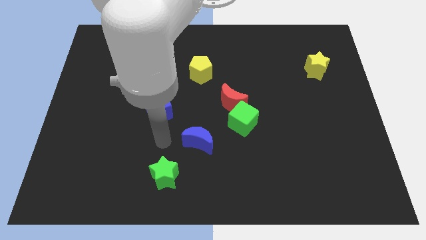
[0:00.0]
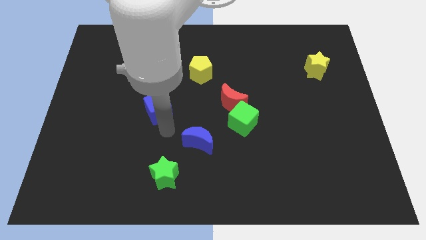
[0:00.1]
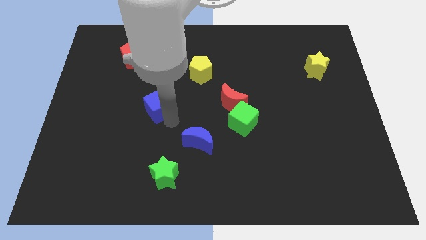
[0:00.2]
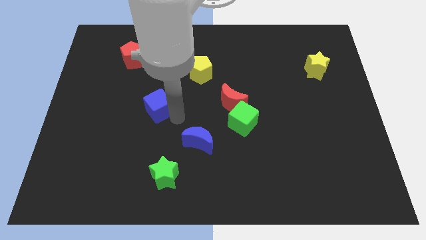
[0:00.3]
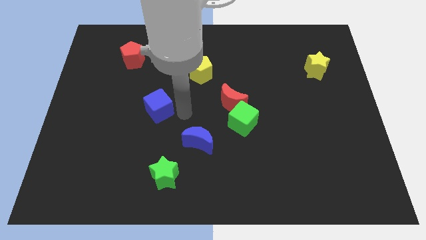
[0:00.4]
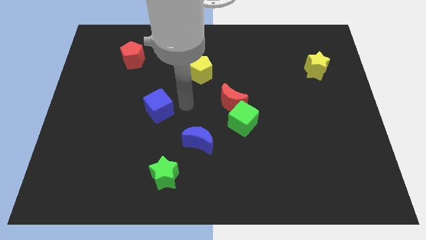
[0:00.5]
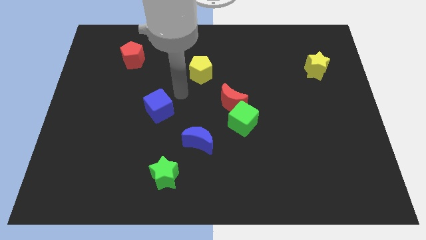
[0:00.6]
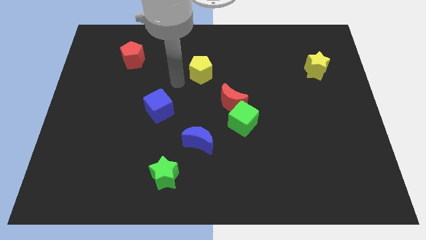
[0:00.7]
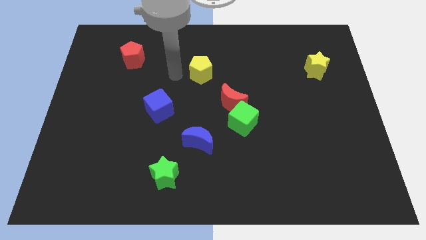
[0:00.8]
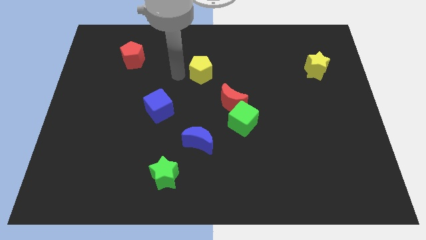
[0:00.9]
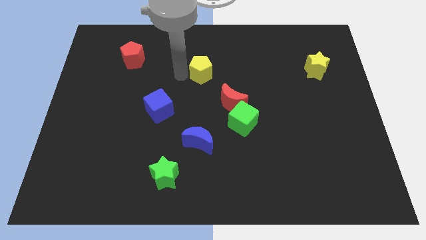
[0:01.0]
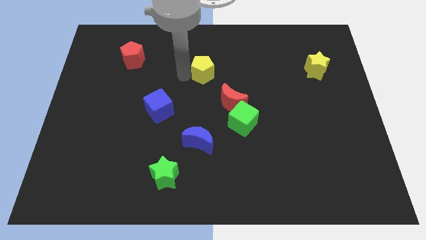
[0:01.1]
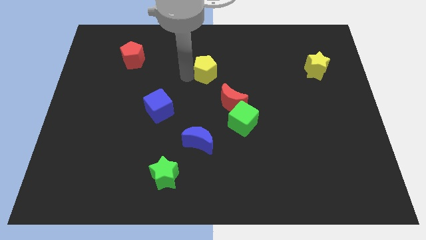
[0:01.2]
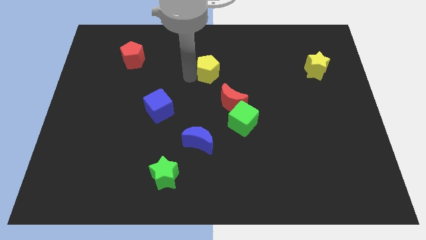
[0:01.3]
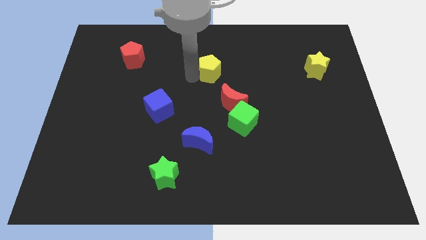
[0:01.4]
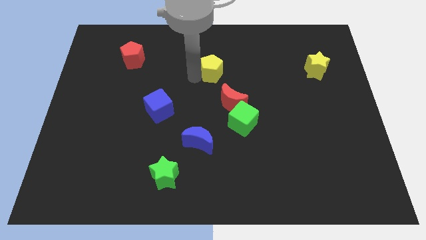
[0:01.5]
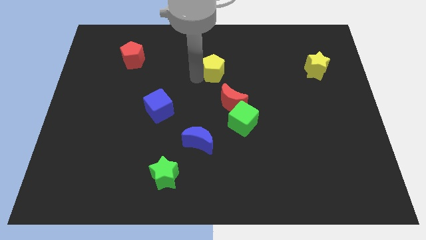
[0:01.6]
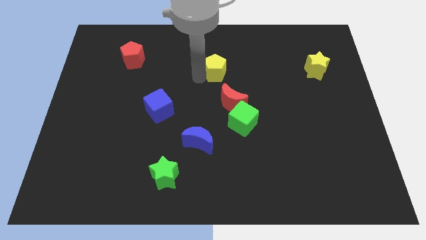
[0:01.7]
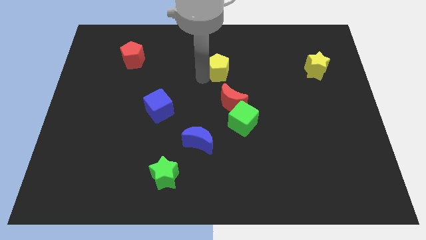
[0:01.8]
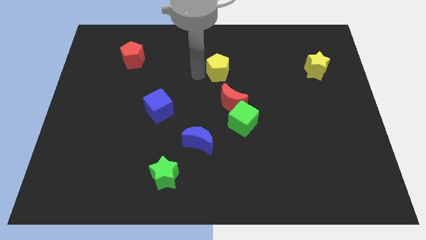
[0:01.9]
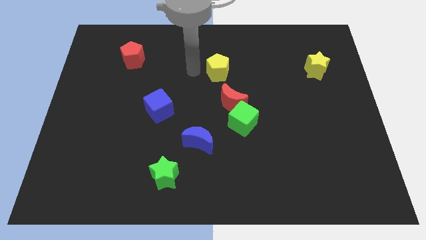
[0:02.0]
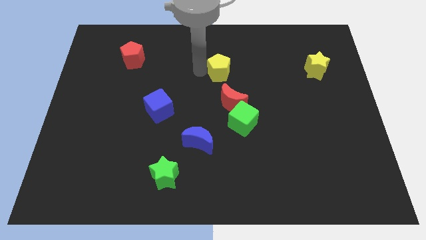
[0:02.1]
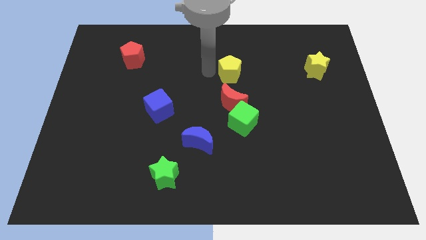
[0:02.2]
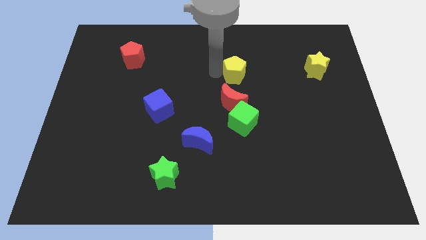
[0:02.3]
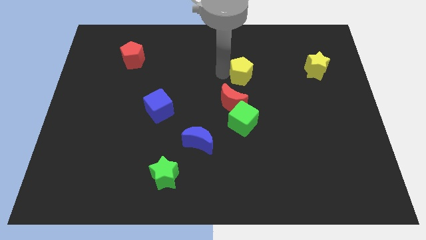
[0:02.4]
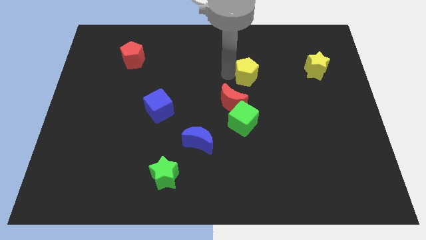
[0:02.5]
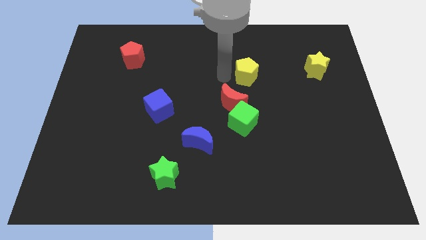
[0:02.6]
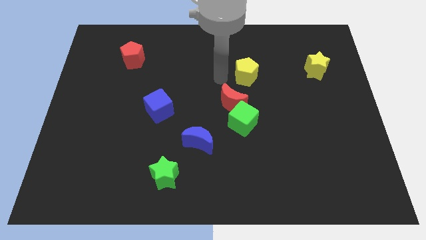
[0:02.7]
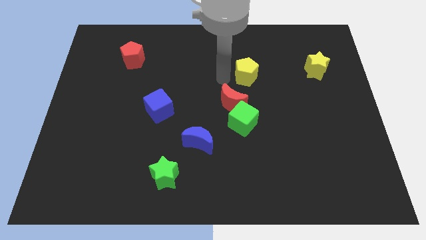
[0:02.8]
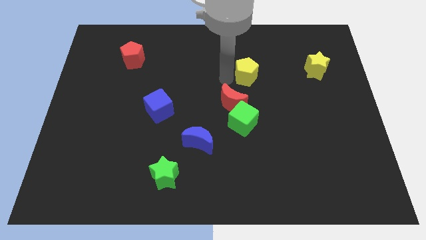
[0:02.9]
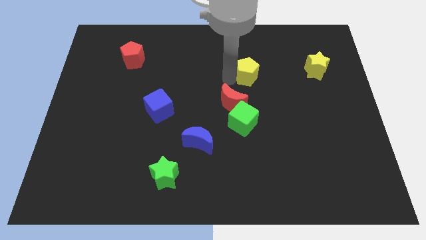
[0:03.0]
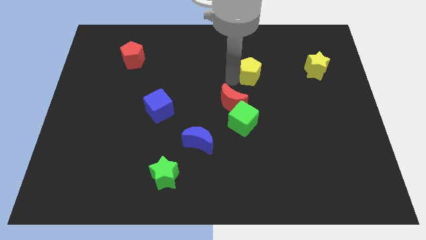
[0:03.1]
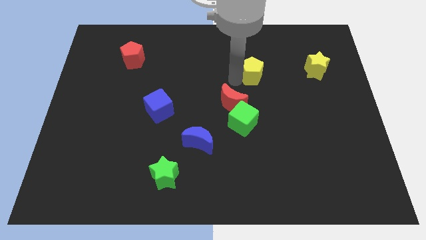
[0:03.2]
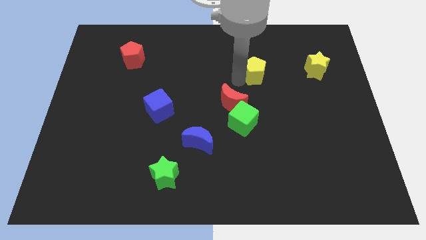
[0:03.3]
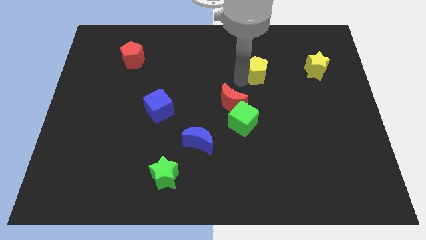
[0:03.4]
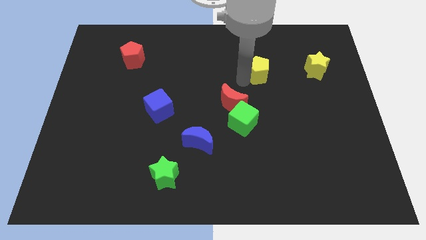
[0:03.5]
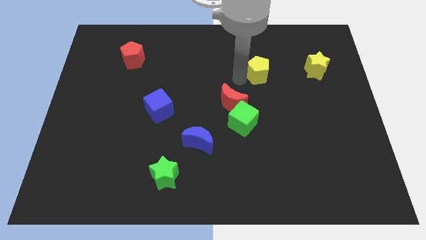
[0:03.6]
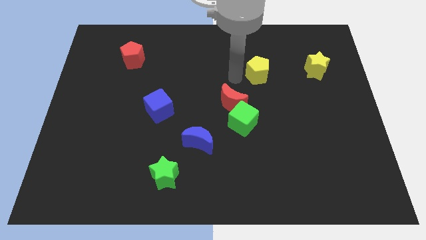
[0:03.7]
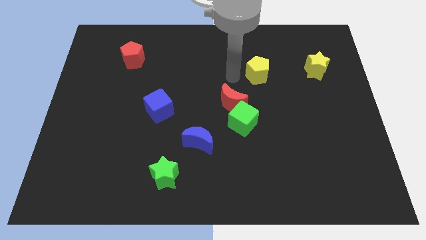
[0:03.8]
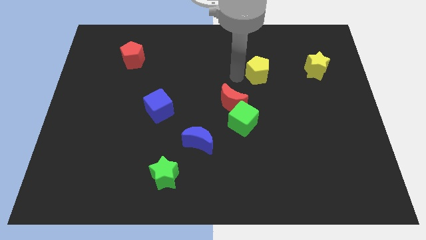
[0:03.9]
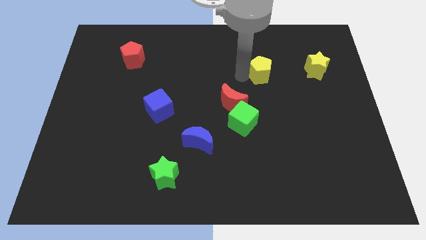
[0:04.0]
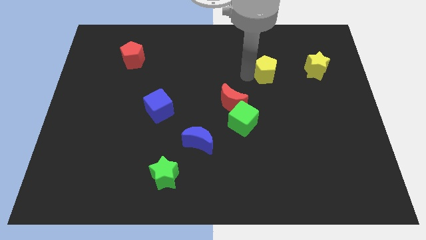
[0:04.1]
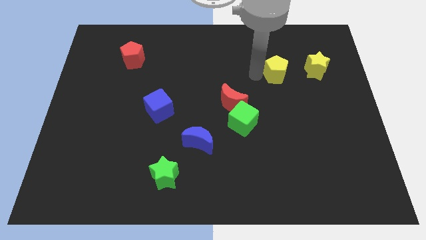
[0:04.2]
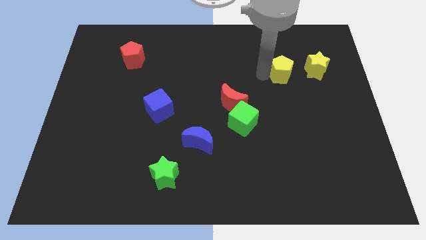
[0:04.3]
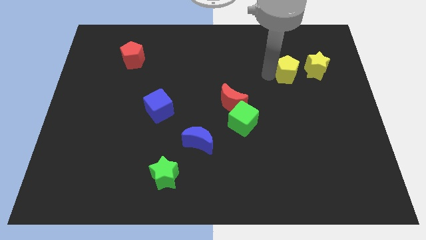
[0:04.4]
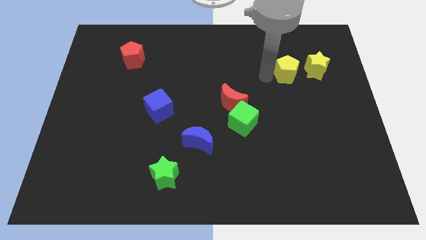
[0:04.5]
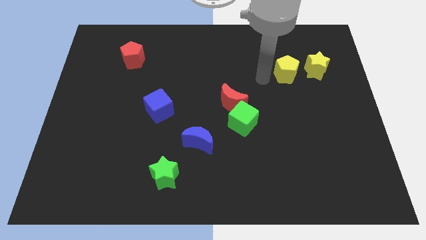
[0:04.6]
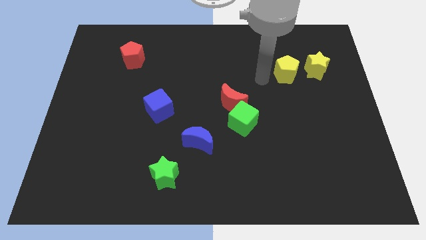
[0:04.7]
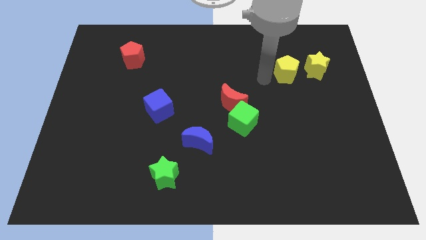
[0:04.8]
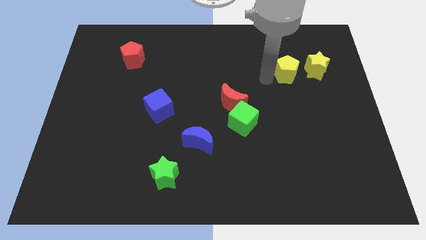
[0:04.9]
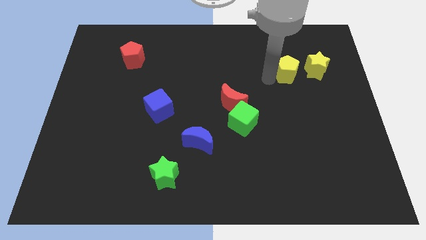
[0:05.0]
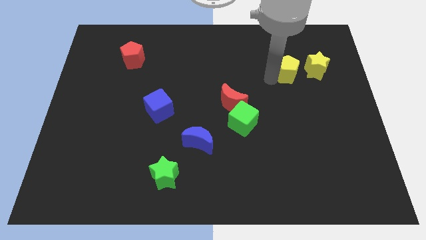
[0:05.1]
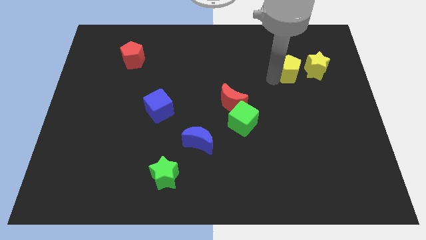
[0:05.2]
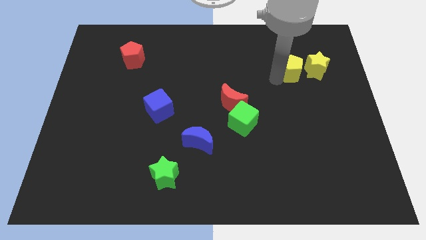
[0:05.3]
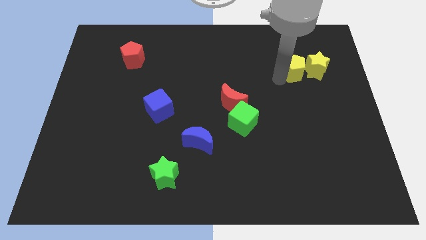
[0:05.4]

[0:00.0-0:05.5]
slide the yellow pentagon close to the yellow star

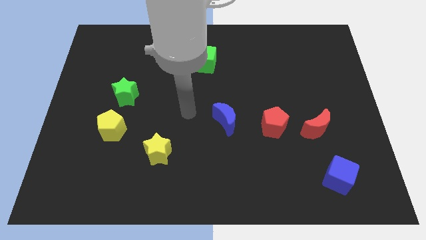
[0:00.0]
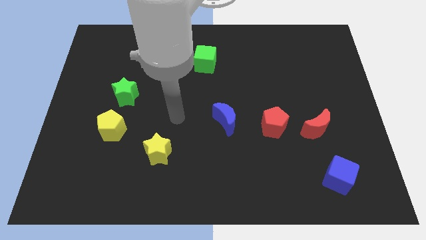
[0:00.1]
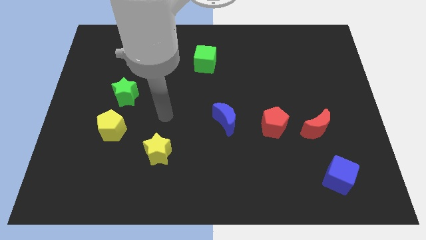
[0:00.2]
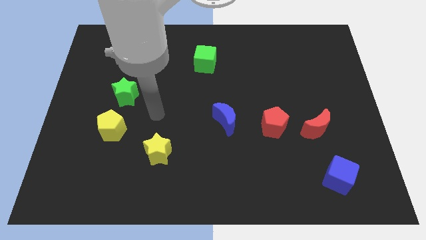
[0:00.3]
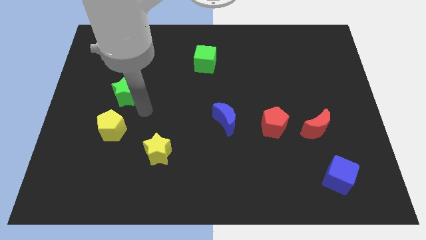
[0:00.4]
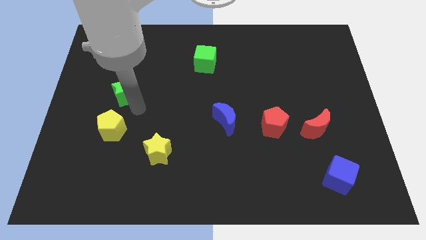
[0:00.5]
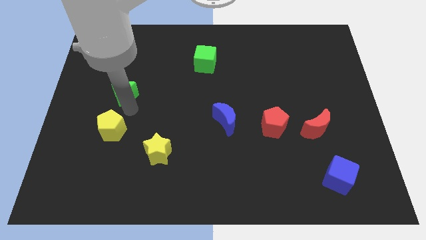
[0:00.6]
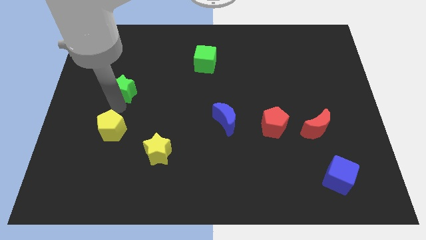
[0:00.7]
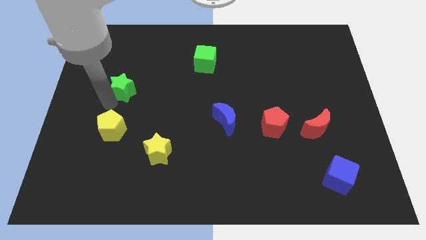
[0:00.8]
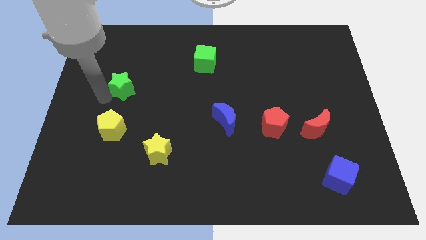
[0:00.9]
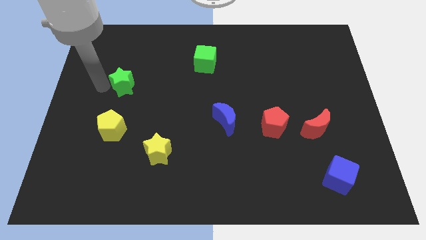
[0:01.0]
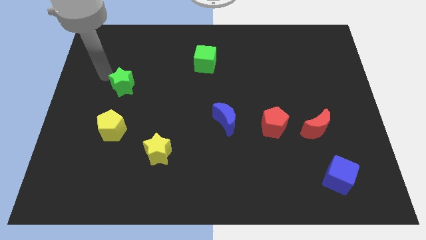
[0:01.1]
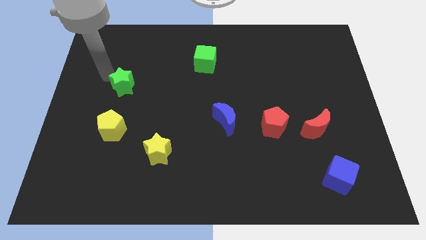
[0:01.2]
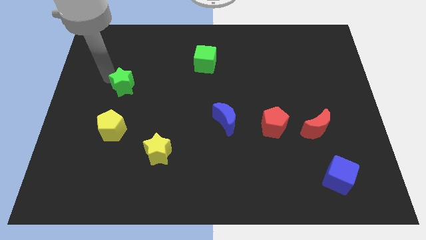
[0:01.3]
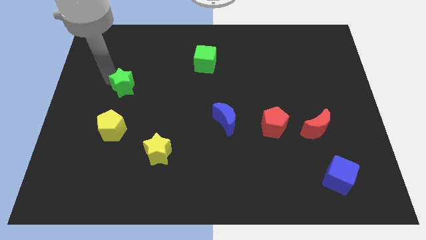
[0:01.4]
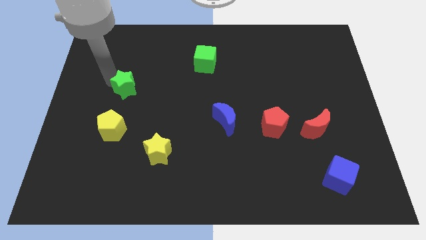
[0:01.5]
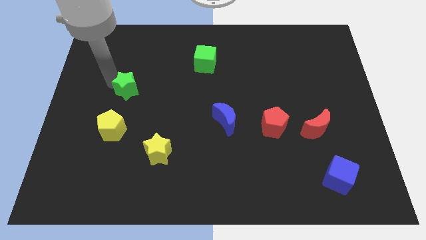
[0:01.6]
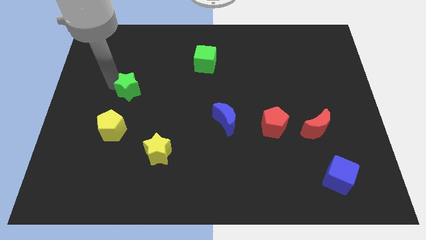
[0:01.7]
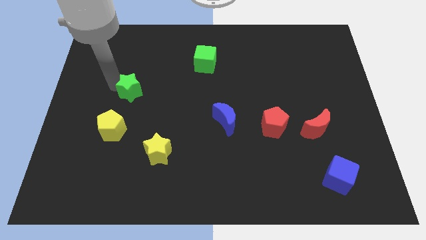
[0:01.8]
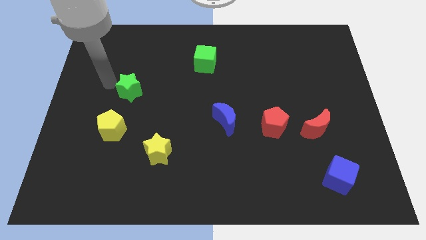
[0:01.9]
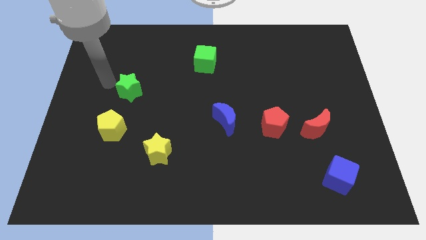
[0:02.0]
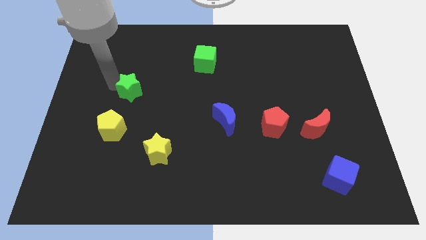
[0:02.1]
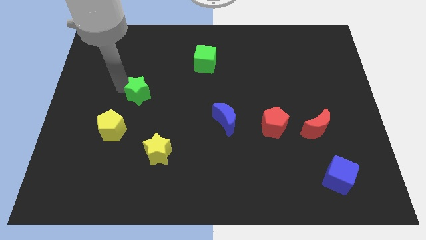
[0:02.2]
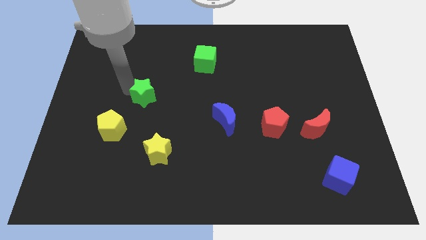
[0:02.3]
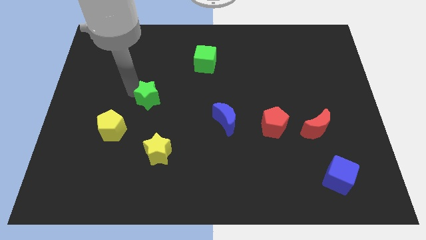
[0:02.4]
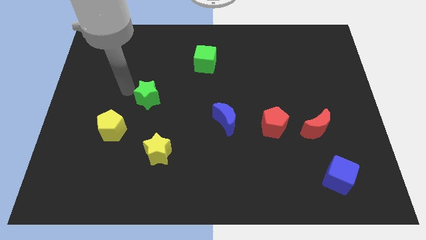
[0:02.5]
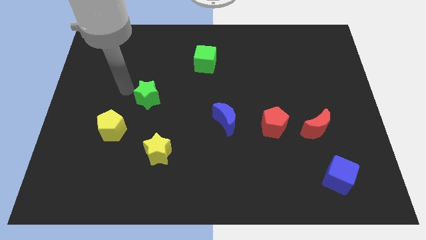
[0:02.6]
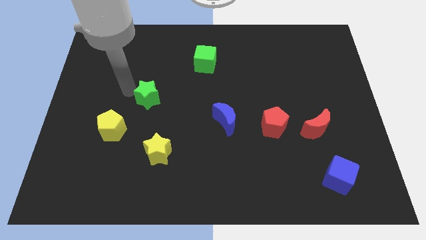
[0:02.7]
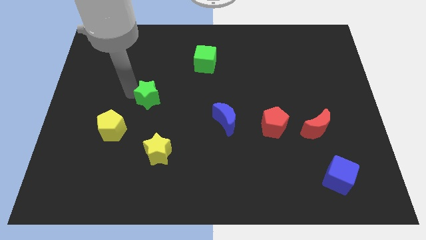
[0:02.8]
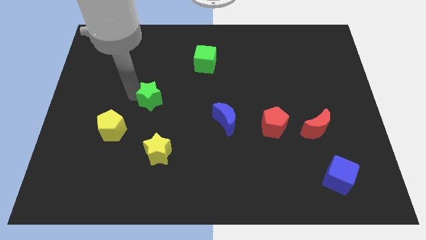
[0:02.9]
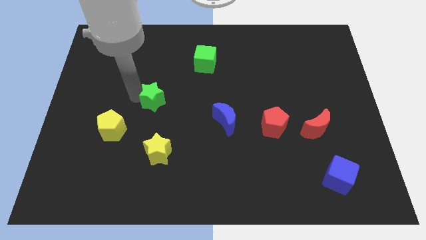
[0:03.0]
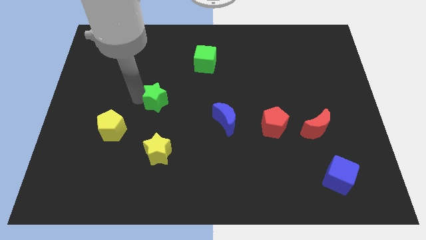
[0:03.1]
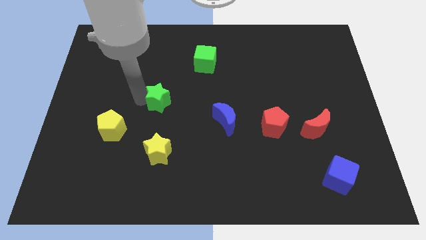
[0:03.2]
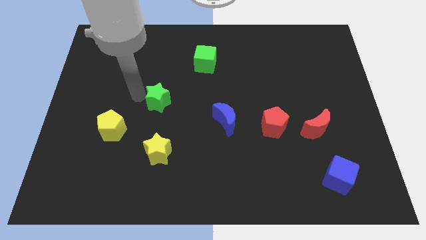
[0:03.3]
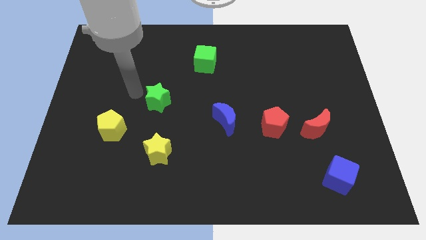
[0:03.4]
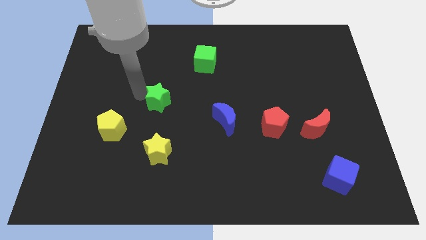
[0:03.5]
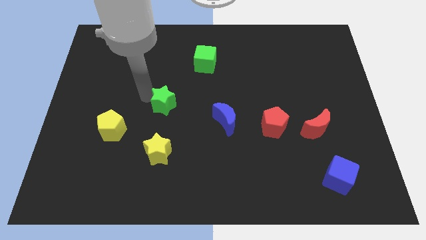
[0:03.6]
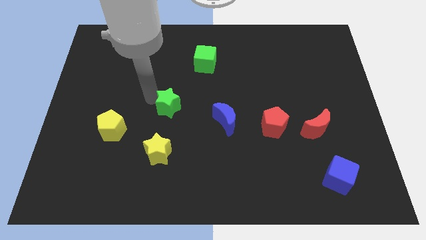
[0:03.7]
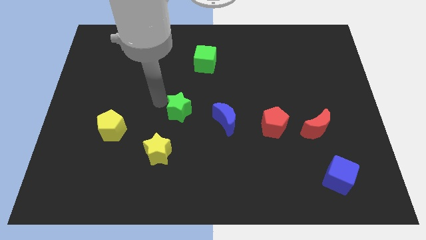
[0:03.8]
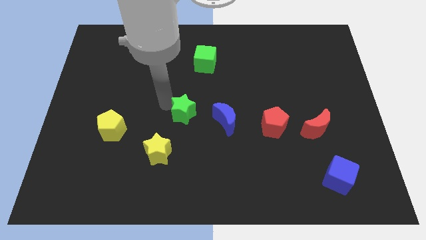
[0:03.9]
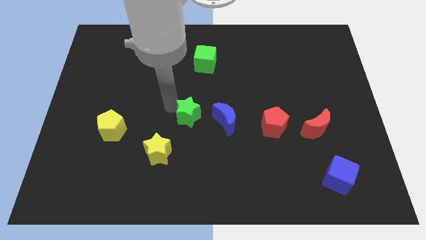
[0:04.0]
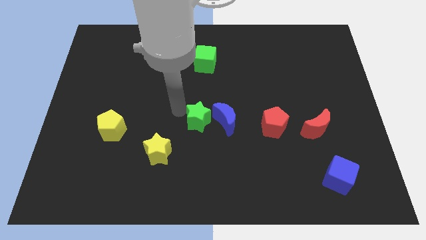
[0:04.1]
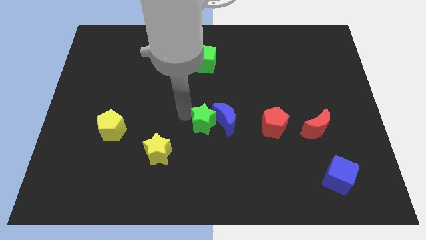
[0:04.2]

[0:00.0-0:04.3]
move the green star to the blue moon
